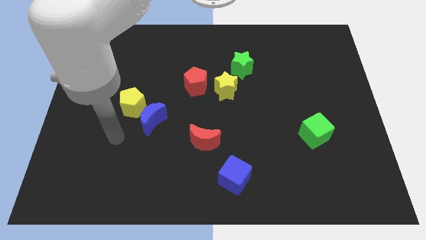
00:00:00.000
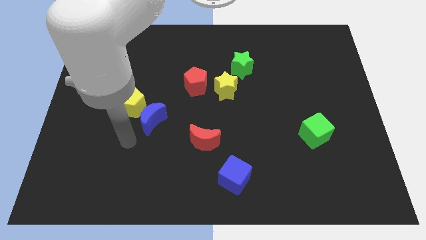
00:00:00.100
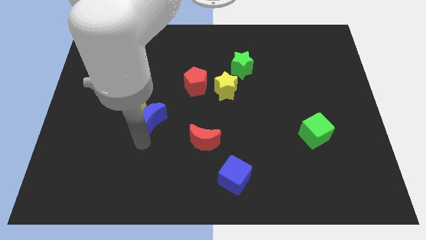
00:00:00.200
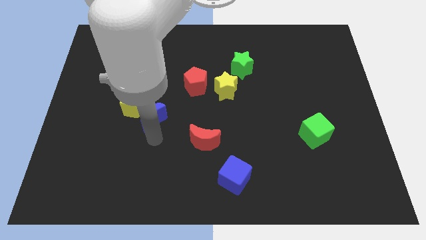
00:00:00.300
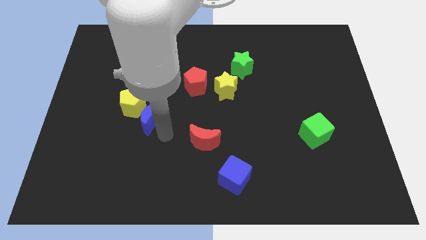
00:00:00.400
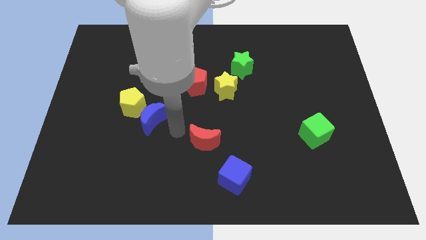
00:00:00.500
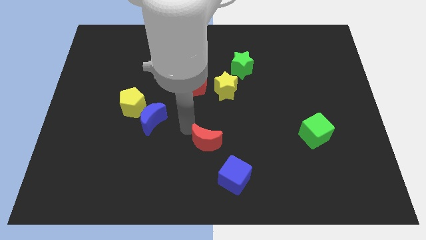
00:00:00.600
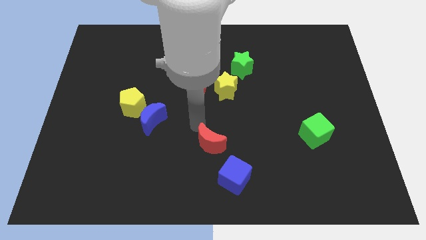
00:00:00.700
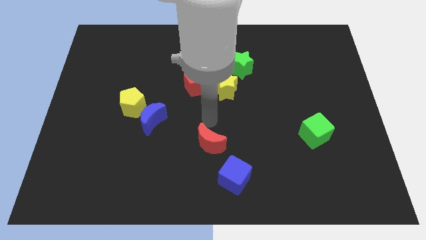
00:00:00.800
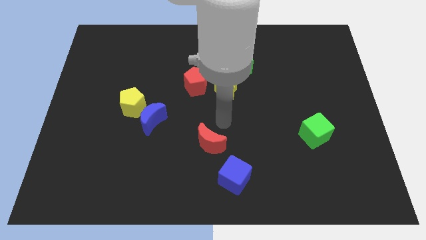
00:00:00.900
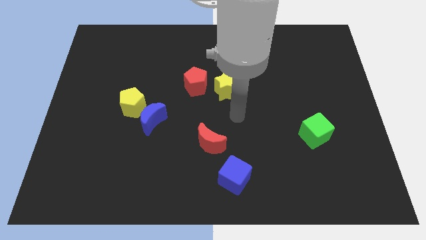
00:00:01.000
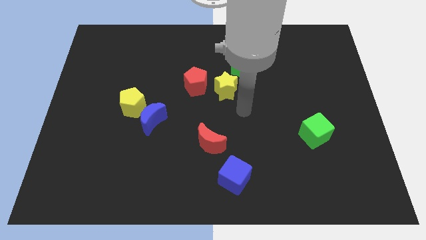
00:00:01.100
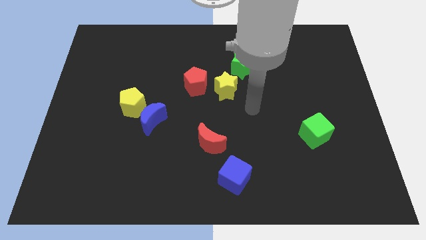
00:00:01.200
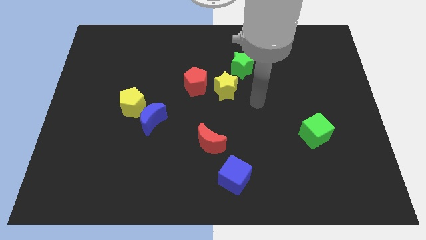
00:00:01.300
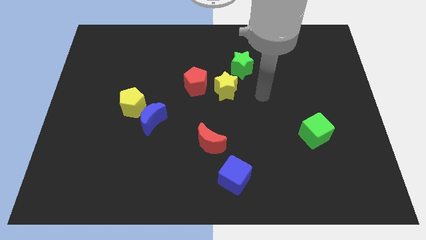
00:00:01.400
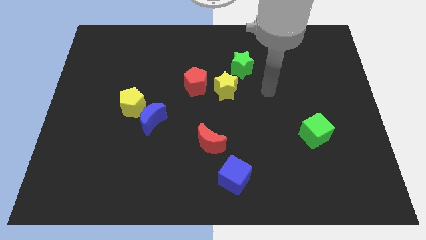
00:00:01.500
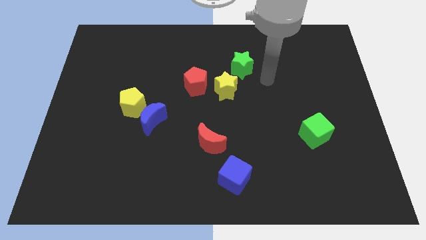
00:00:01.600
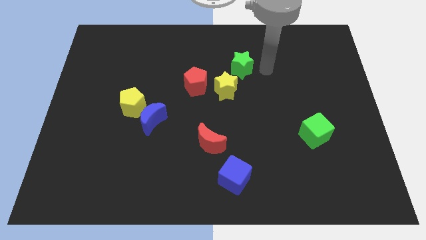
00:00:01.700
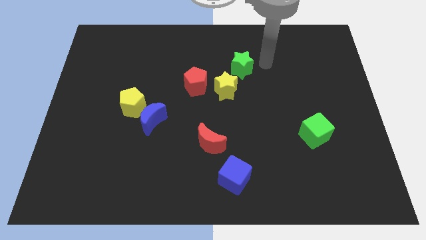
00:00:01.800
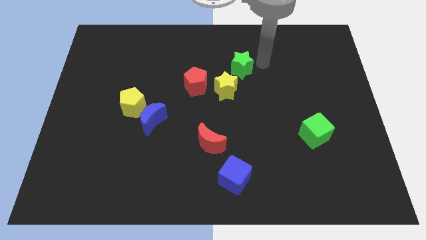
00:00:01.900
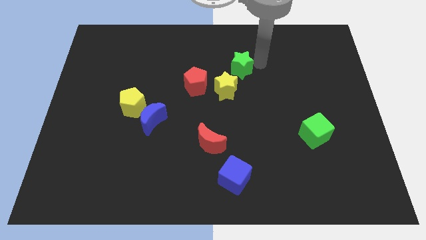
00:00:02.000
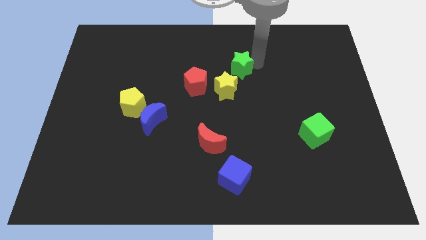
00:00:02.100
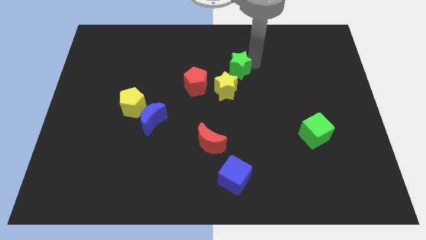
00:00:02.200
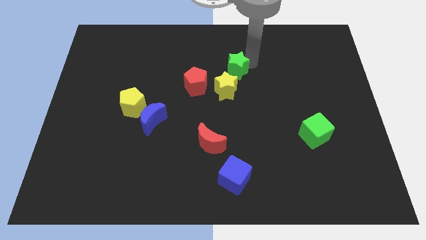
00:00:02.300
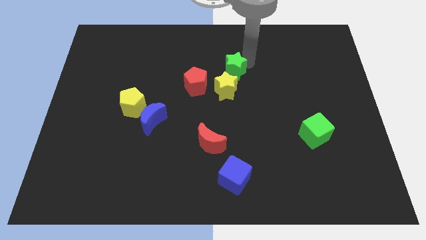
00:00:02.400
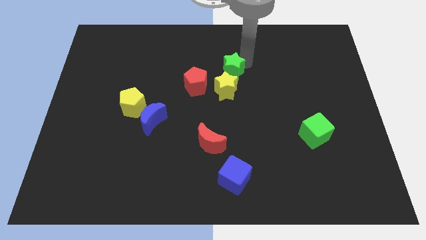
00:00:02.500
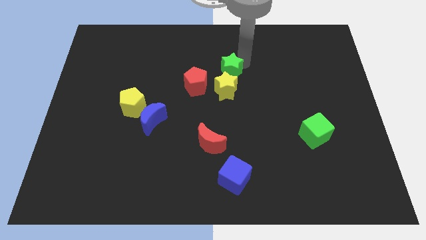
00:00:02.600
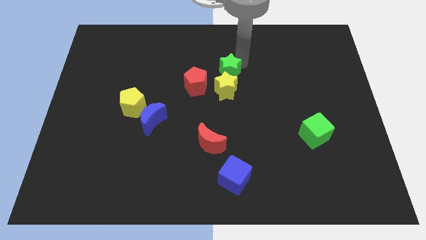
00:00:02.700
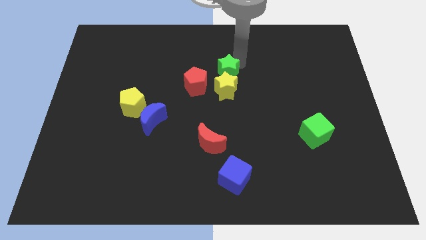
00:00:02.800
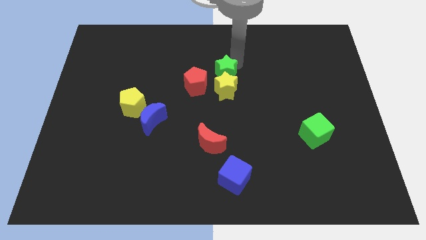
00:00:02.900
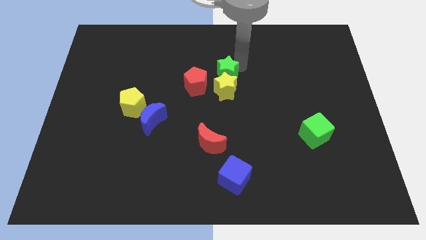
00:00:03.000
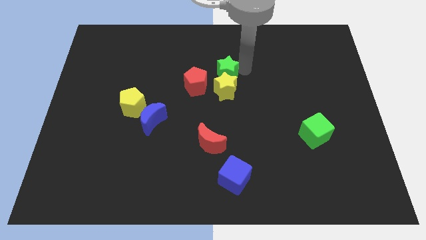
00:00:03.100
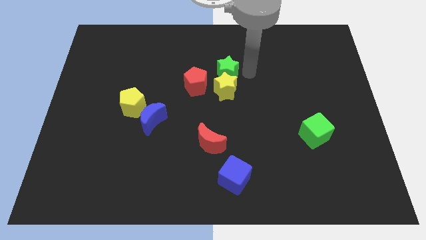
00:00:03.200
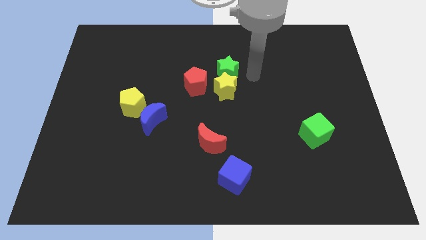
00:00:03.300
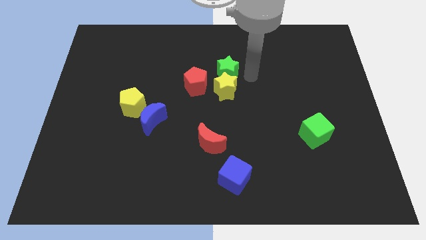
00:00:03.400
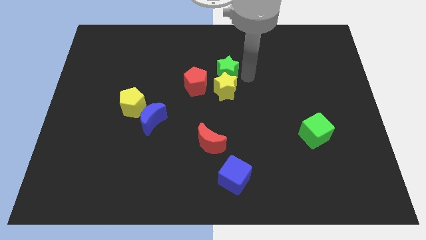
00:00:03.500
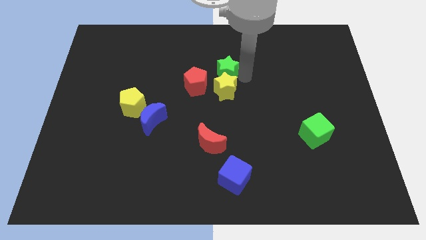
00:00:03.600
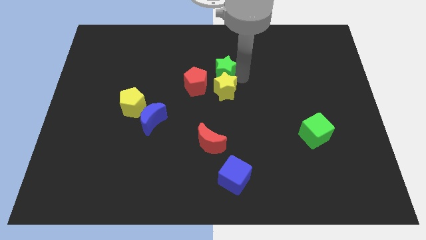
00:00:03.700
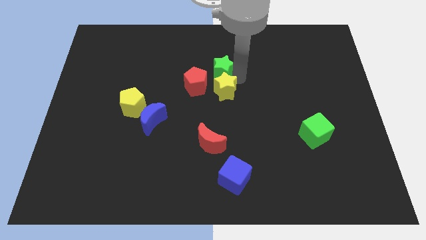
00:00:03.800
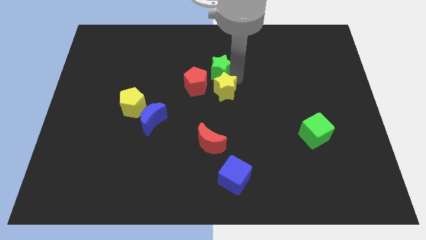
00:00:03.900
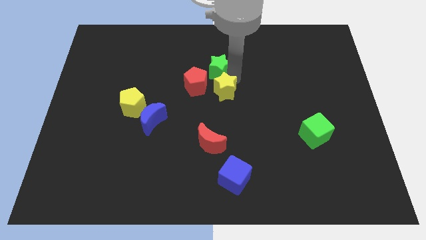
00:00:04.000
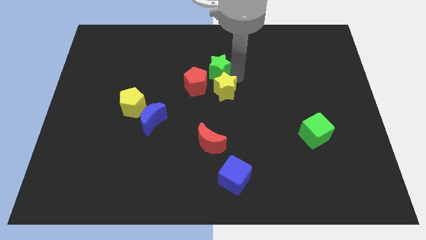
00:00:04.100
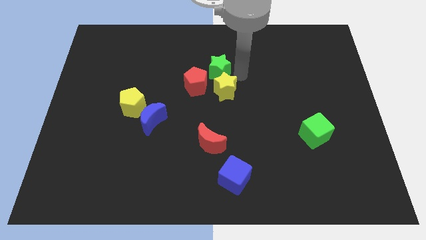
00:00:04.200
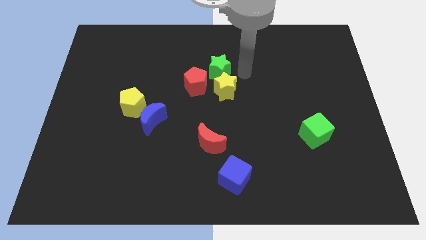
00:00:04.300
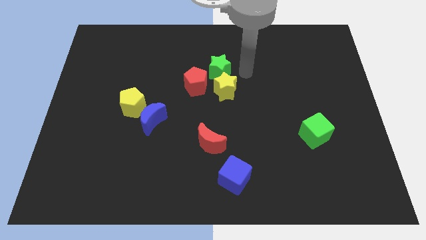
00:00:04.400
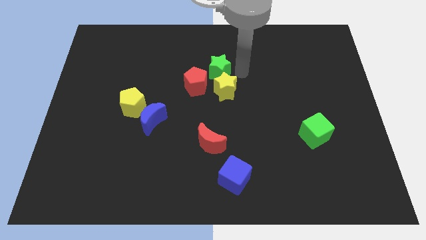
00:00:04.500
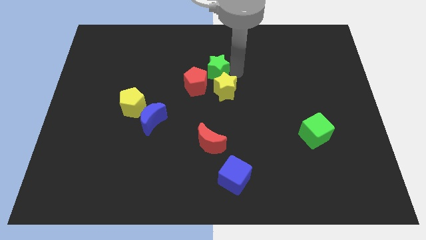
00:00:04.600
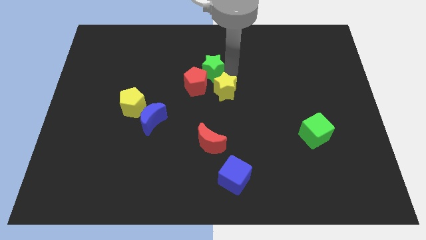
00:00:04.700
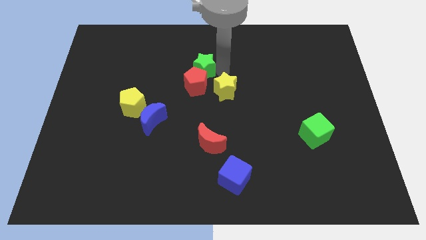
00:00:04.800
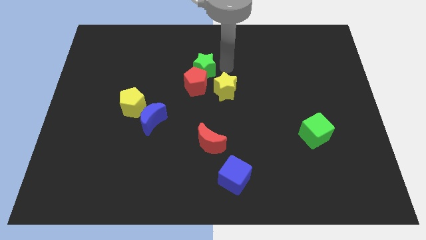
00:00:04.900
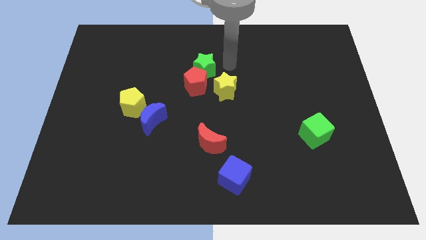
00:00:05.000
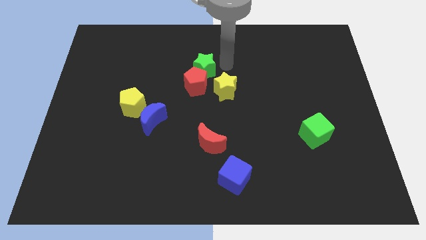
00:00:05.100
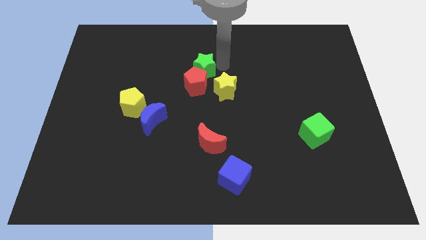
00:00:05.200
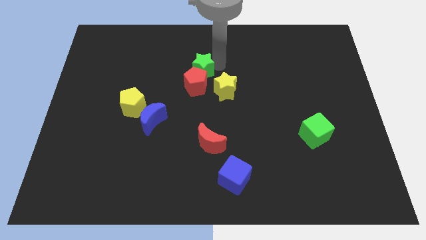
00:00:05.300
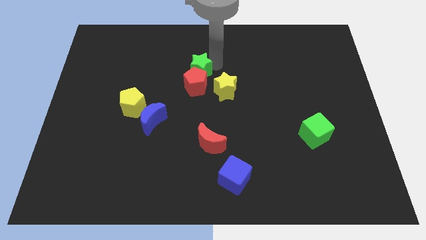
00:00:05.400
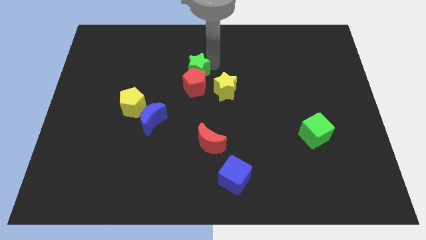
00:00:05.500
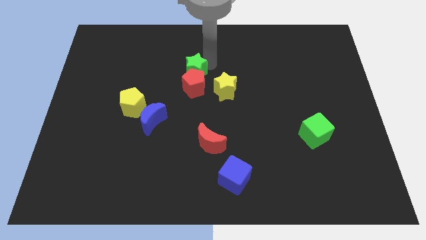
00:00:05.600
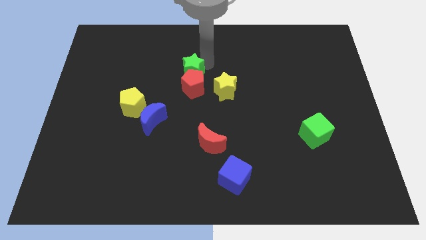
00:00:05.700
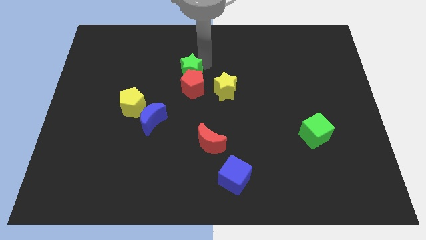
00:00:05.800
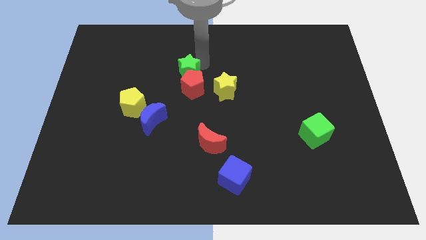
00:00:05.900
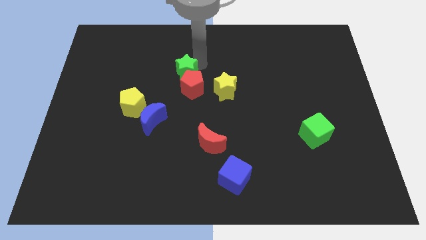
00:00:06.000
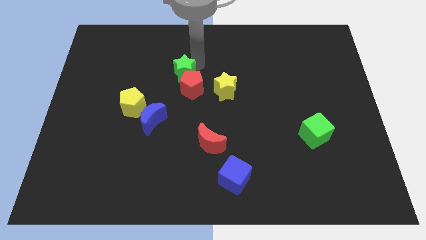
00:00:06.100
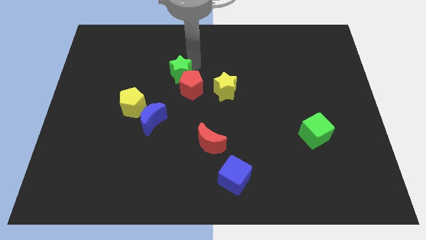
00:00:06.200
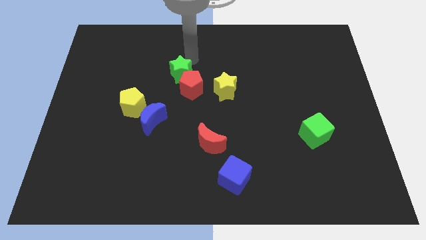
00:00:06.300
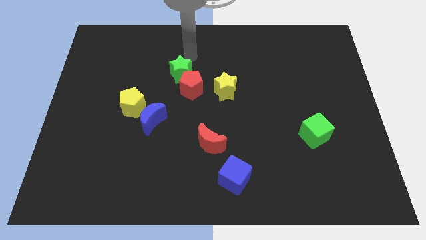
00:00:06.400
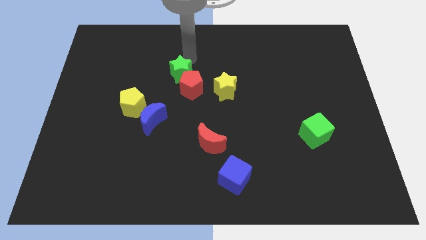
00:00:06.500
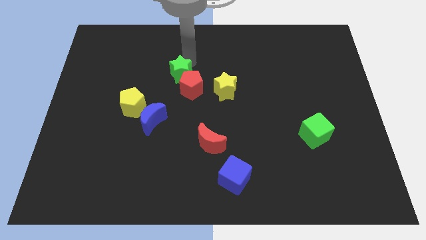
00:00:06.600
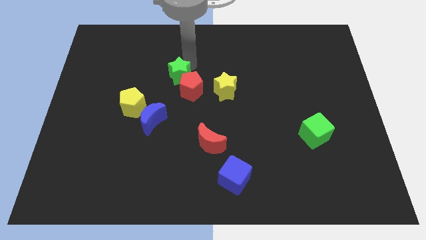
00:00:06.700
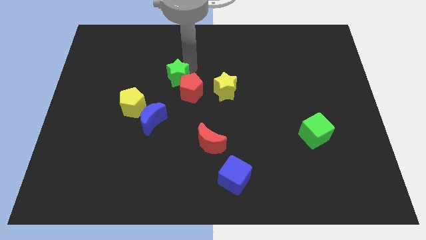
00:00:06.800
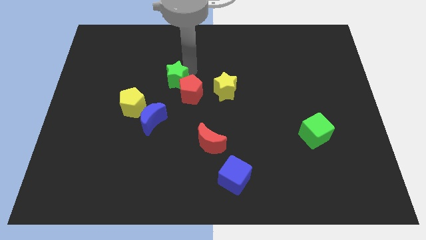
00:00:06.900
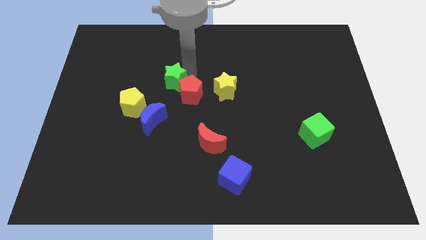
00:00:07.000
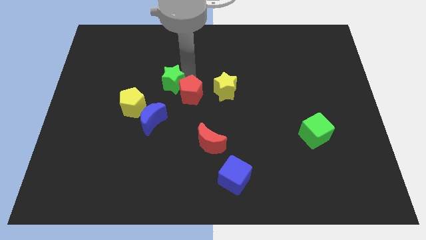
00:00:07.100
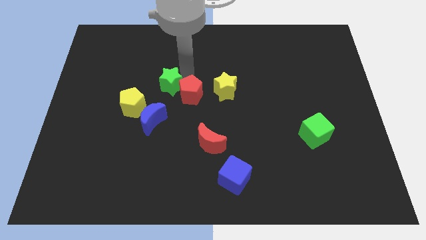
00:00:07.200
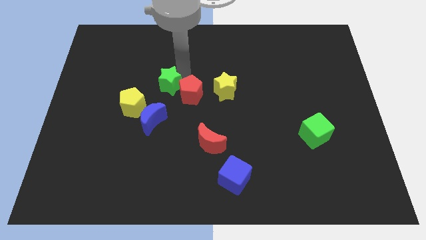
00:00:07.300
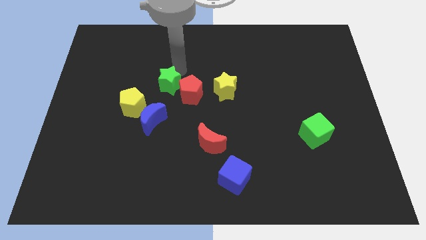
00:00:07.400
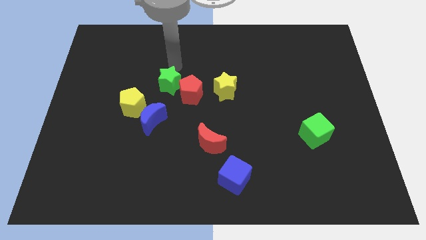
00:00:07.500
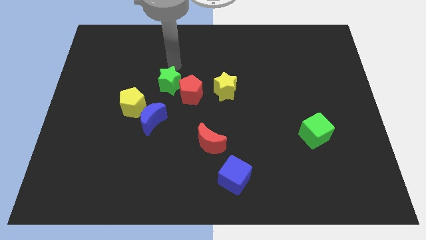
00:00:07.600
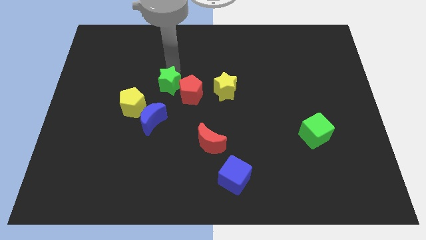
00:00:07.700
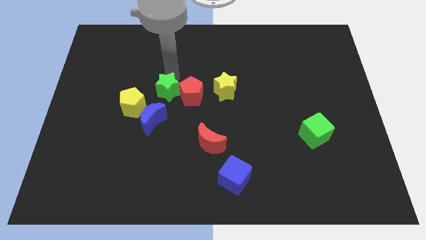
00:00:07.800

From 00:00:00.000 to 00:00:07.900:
slide the green star diagonally down and to the left of the red pentagon
